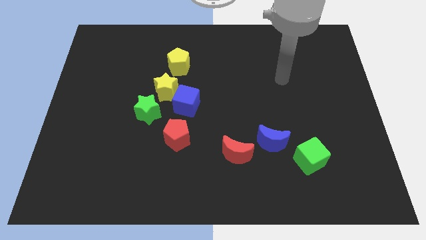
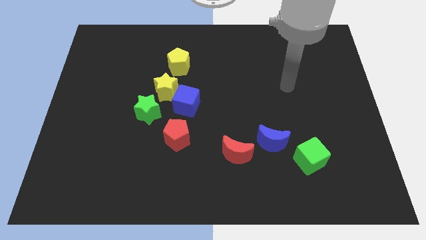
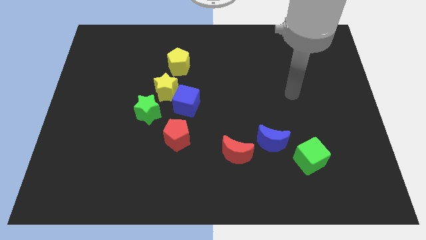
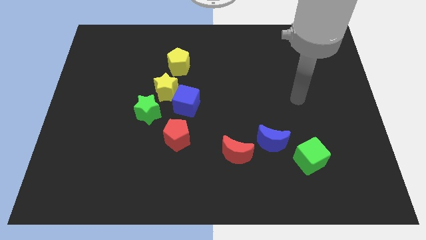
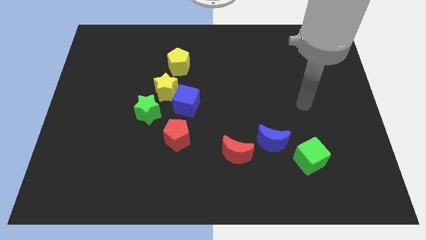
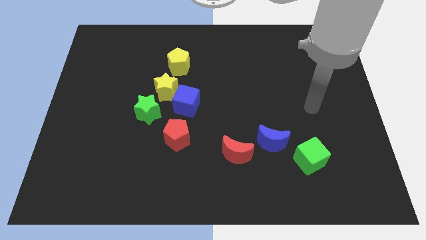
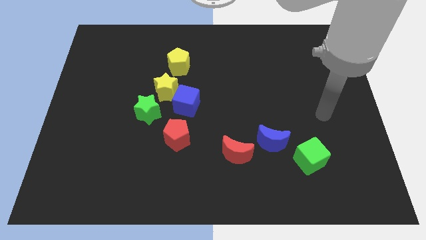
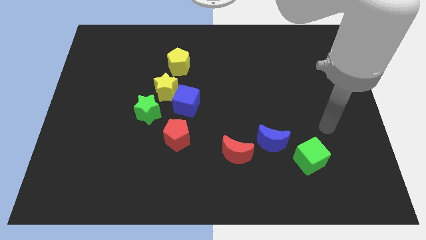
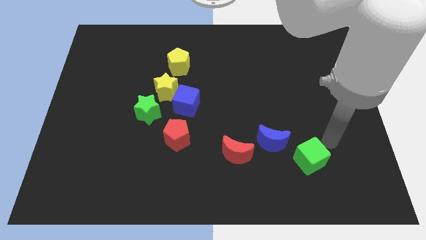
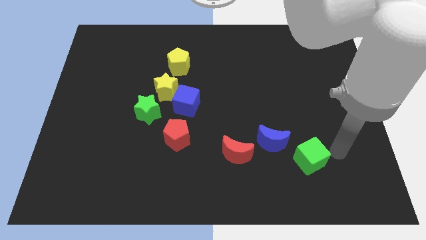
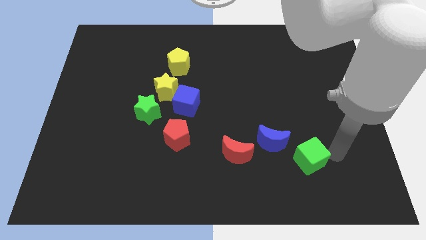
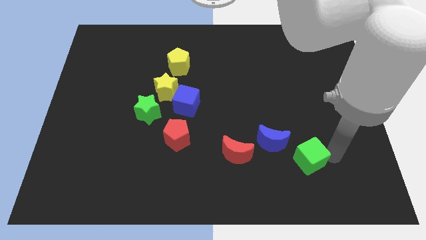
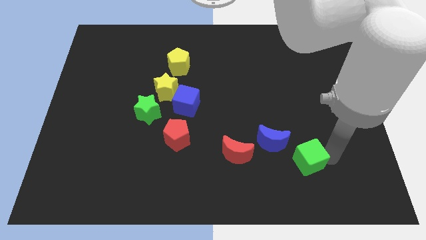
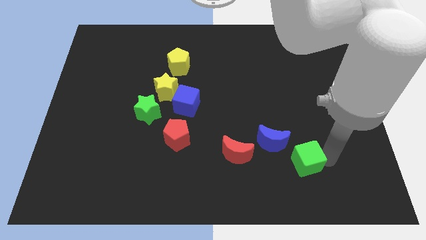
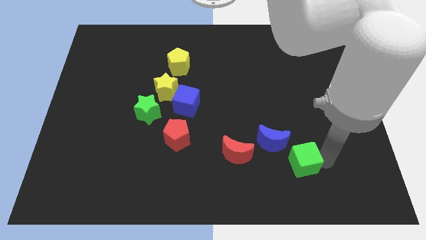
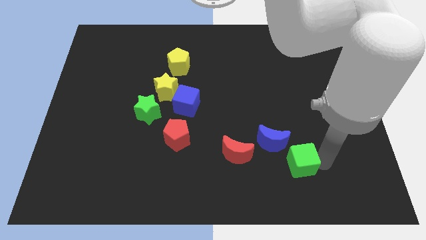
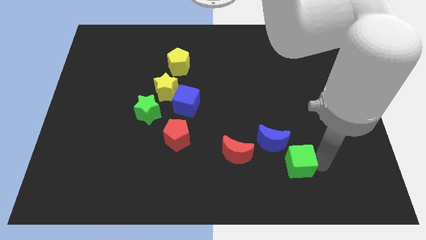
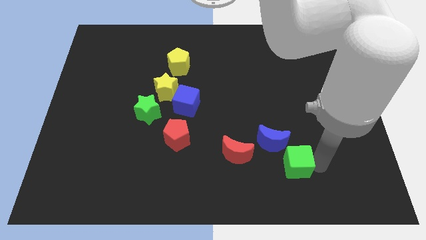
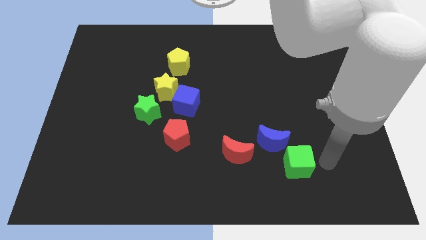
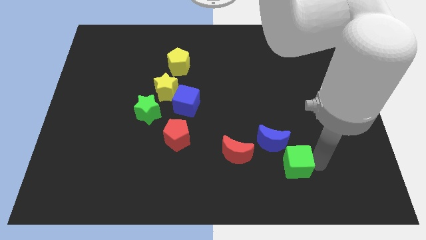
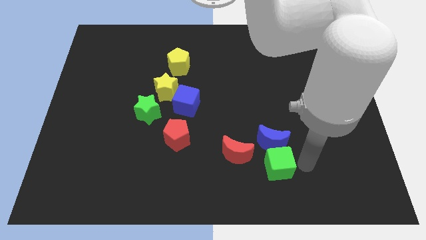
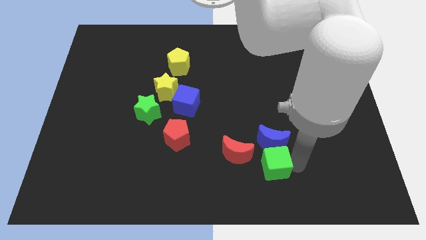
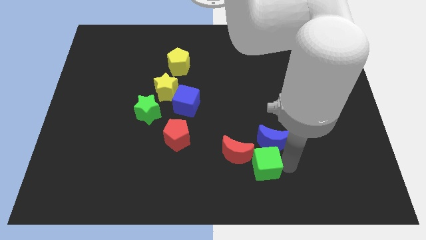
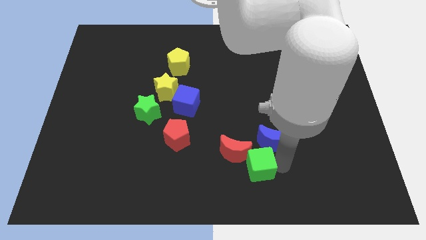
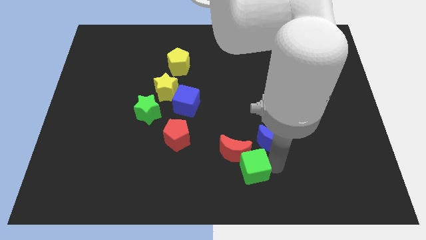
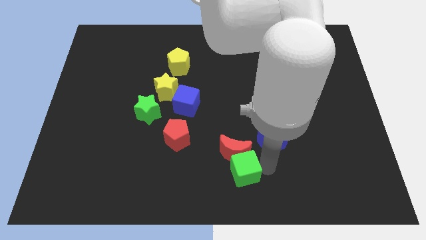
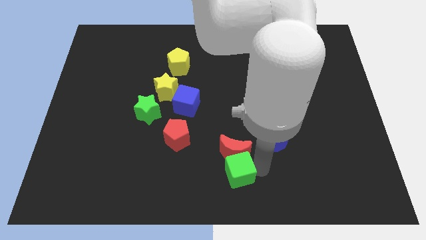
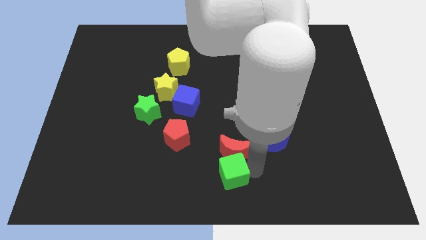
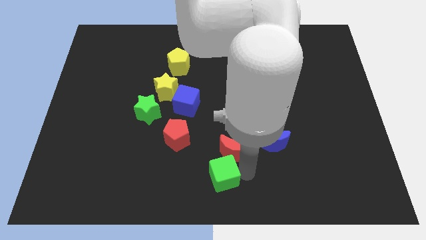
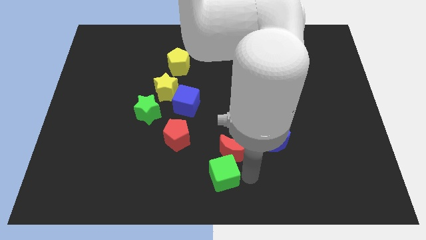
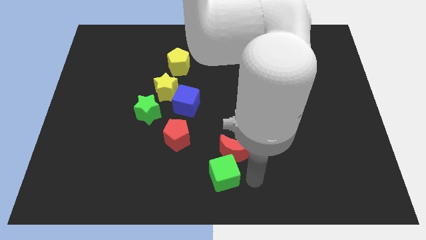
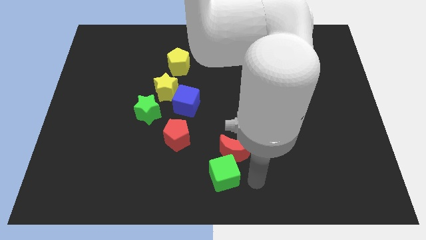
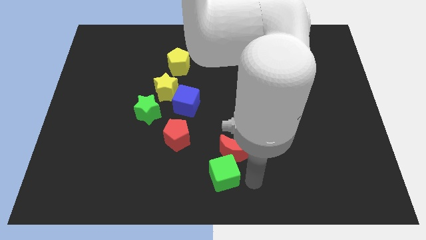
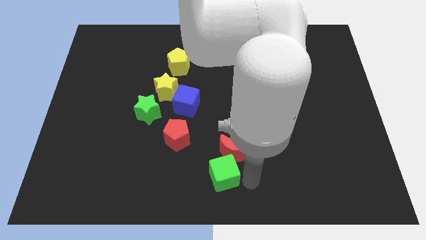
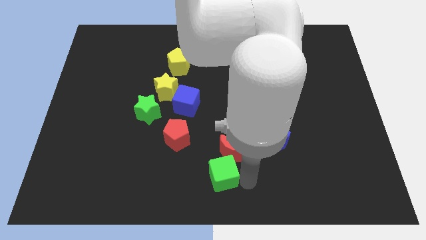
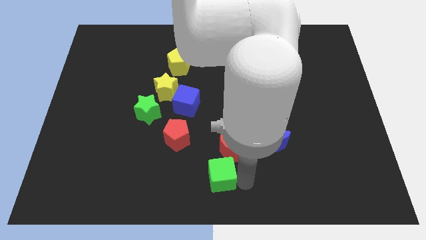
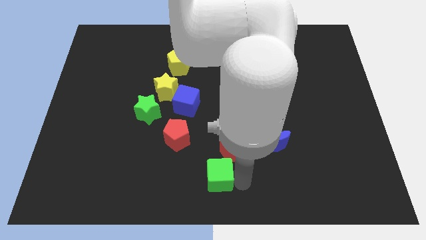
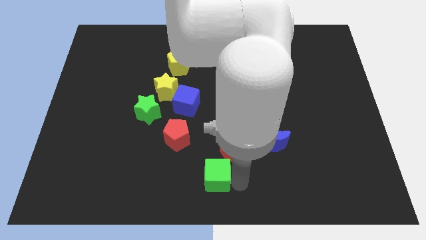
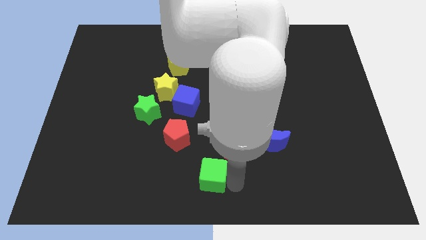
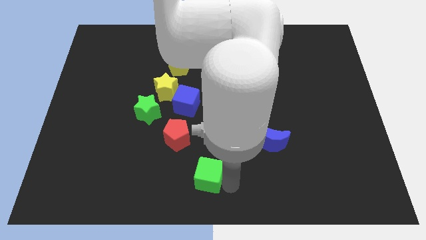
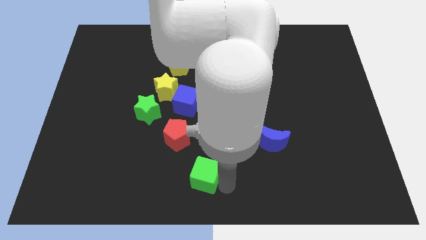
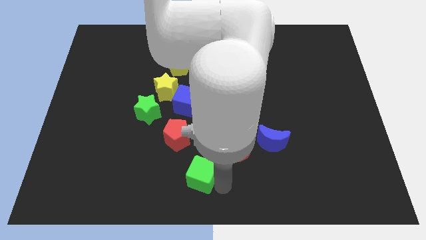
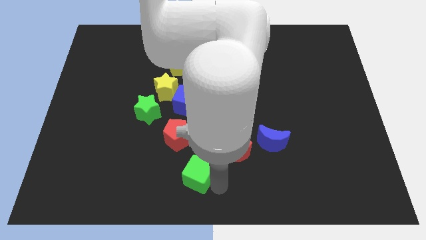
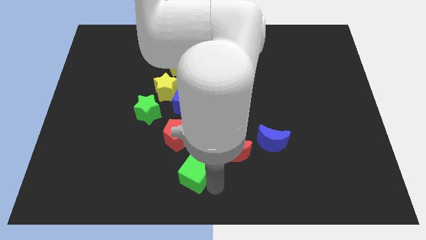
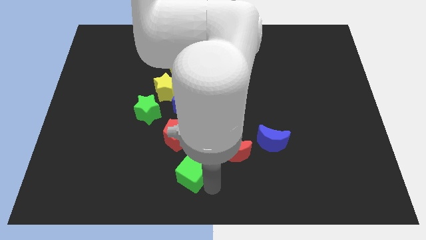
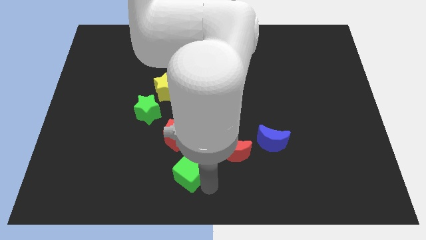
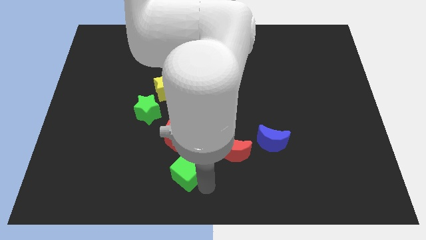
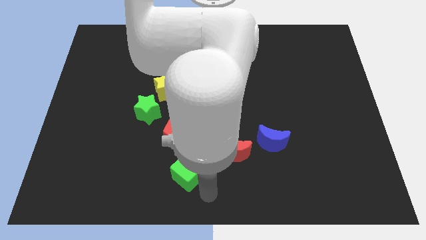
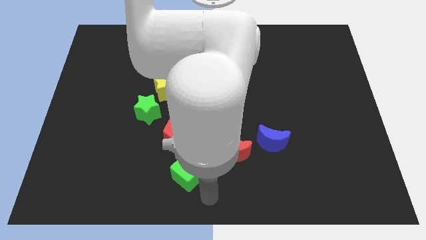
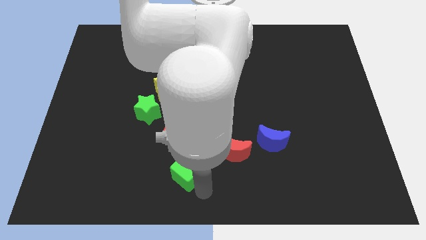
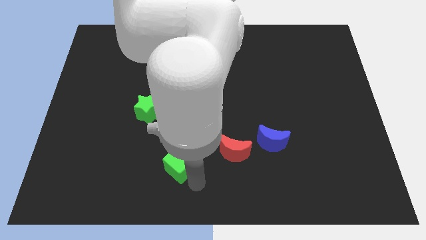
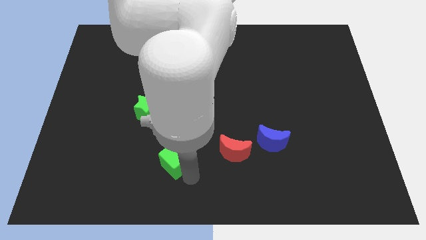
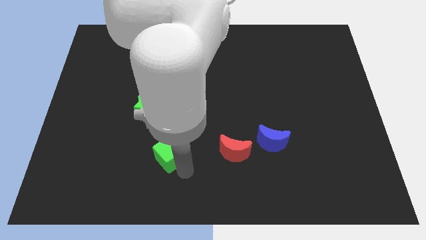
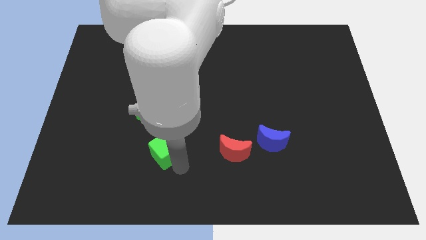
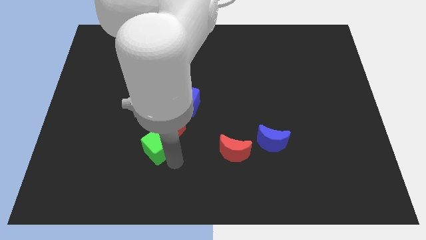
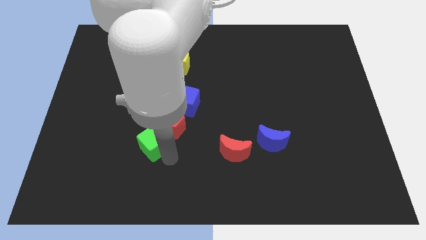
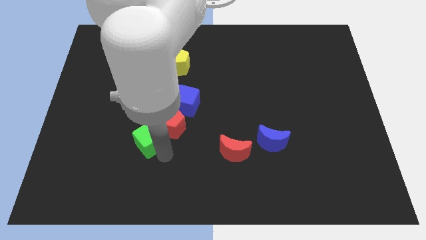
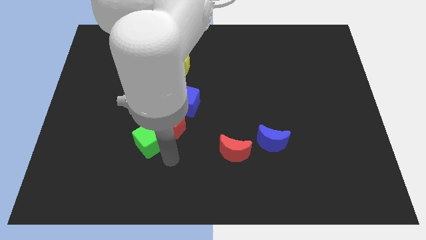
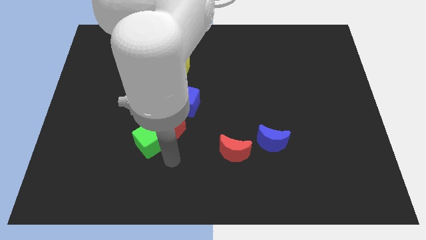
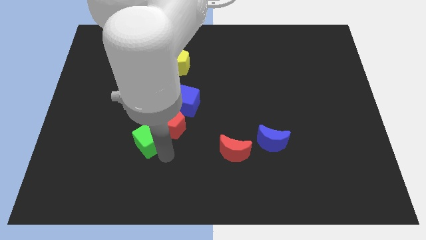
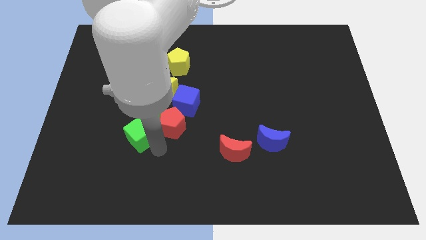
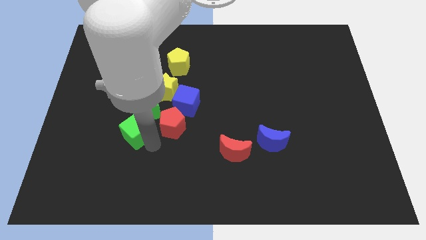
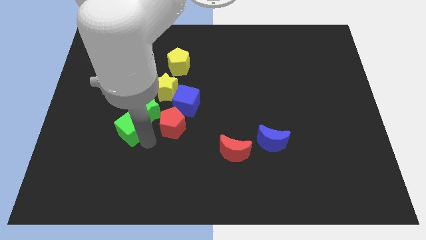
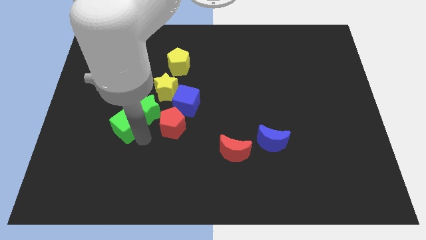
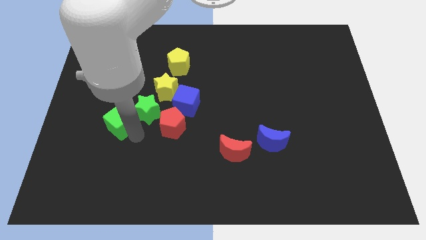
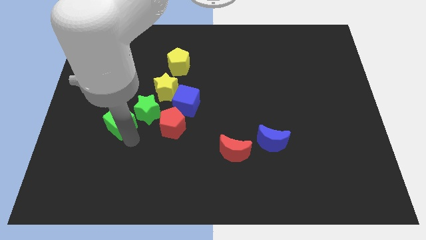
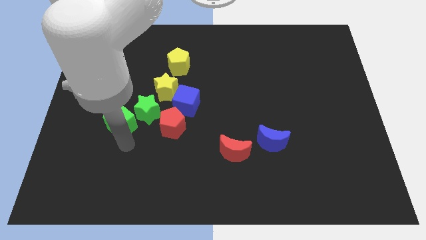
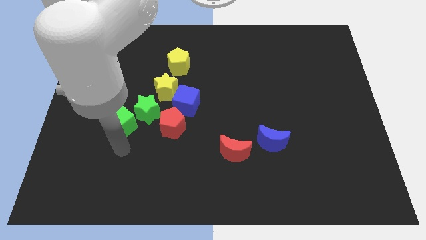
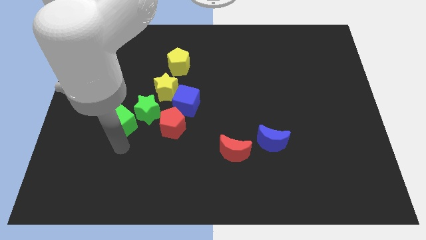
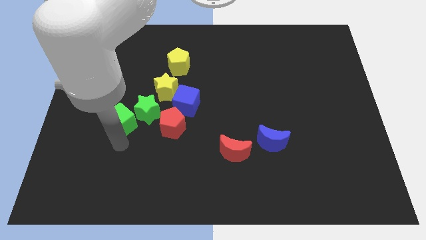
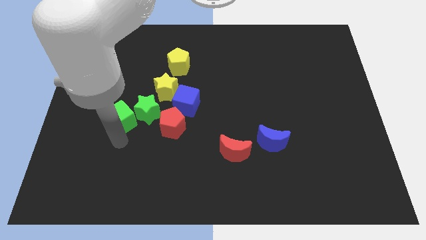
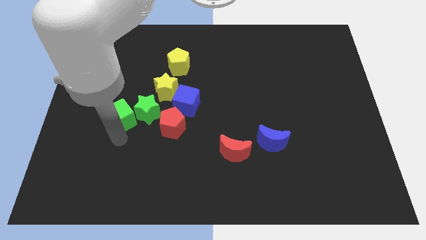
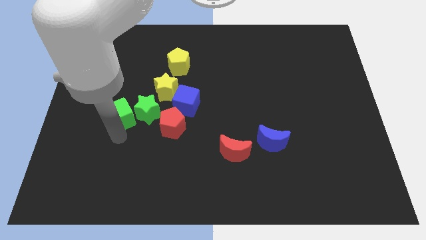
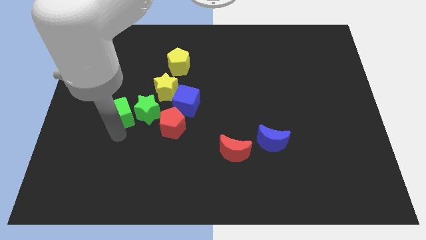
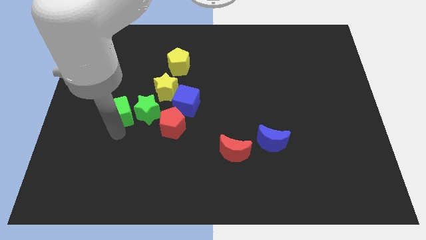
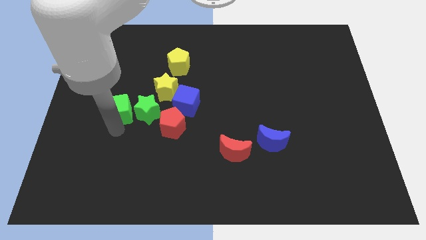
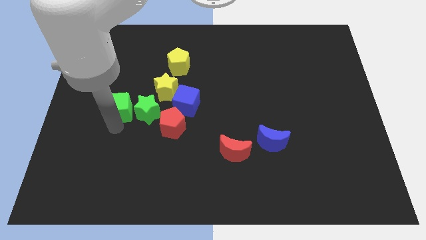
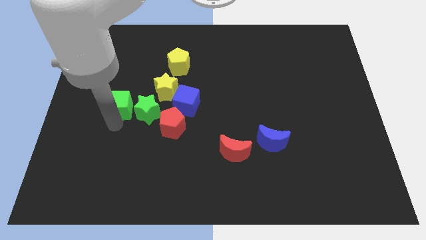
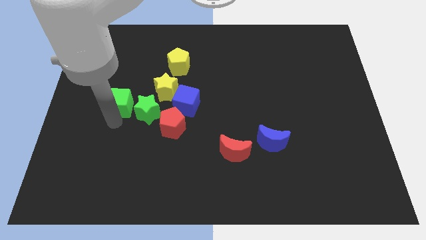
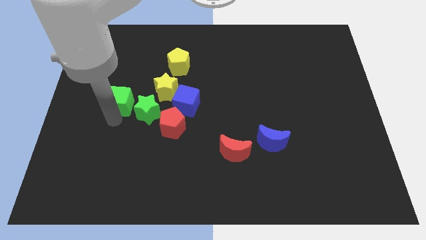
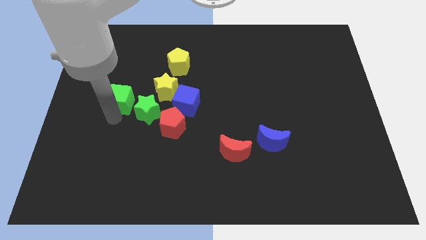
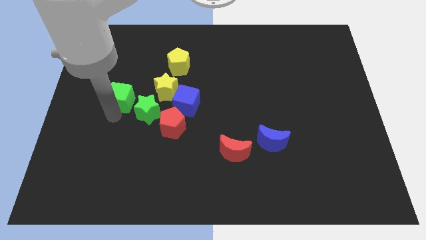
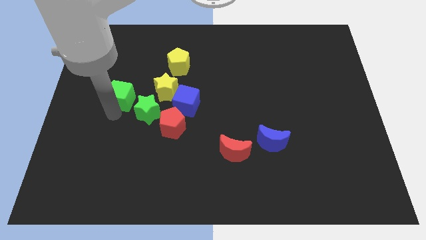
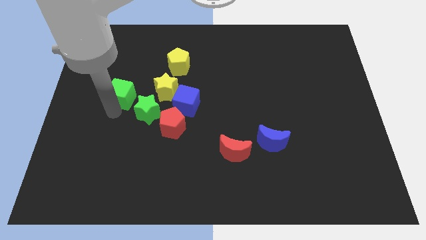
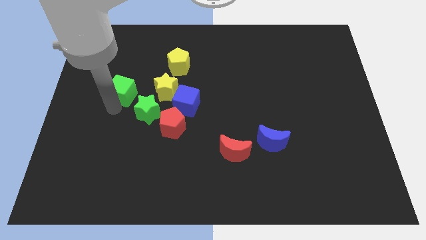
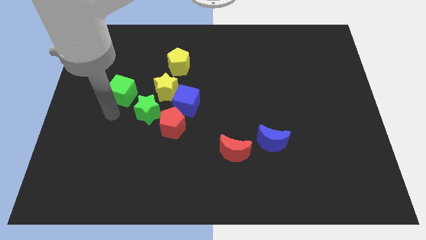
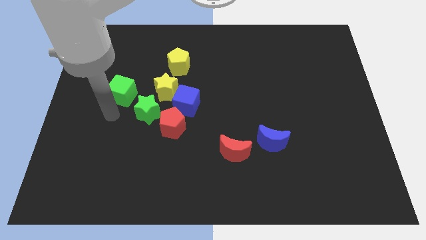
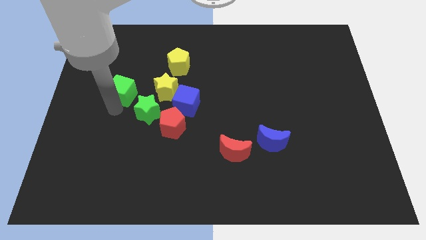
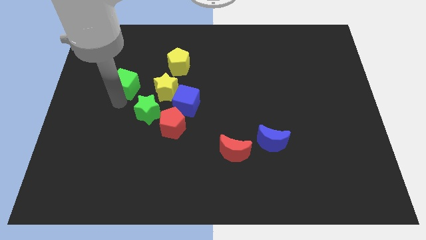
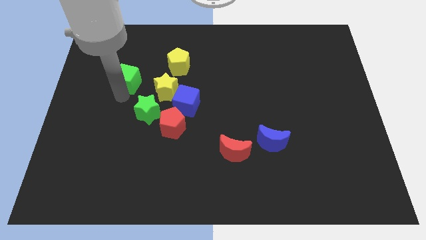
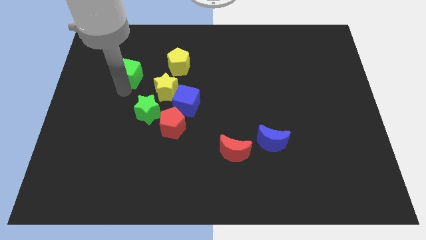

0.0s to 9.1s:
move the green cube just left of the yellow pentagon
